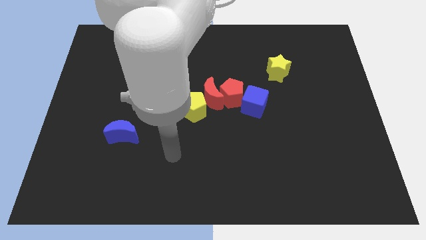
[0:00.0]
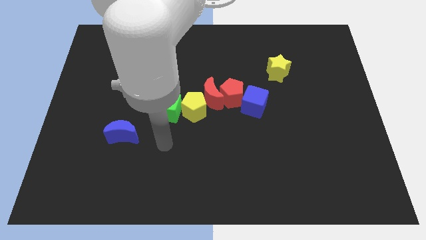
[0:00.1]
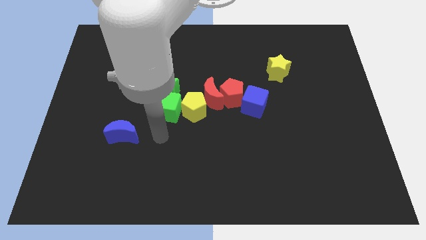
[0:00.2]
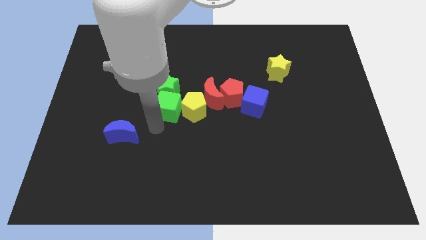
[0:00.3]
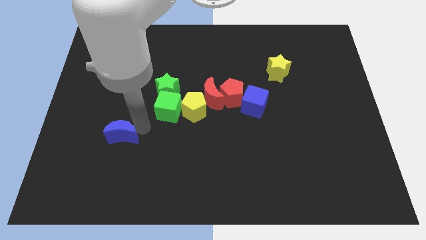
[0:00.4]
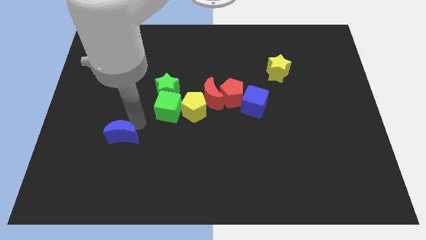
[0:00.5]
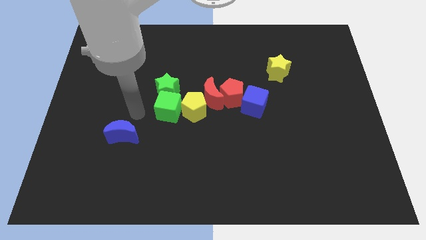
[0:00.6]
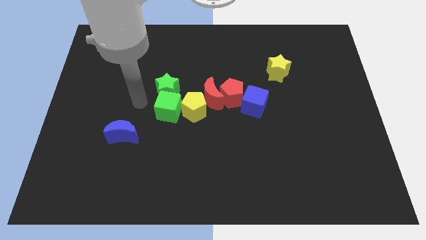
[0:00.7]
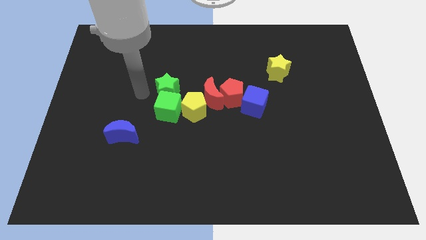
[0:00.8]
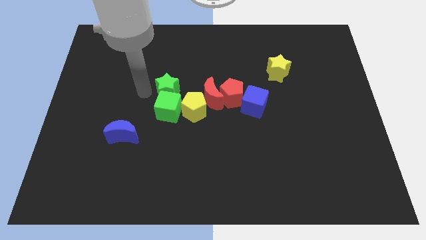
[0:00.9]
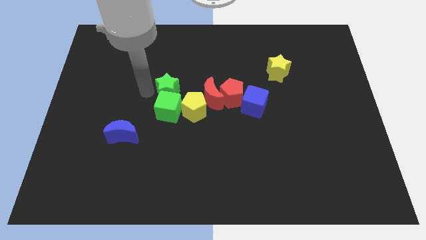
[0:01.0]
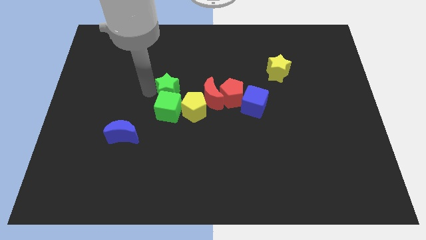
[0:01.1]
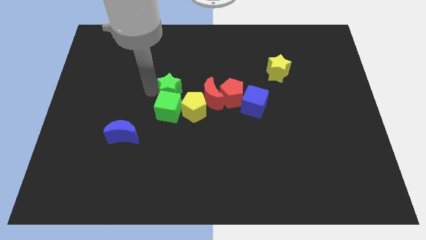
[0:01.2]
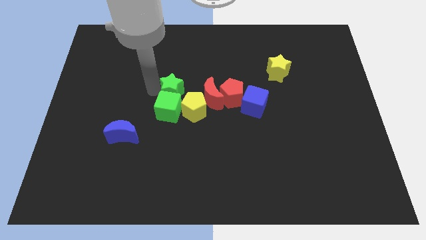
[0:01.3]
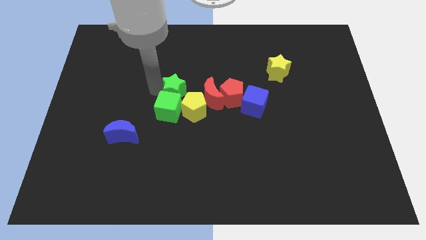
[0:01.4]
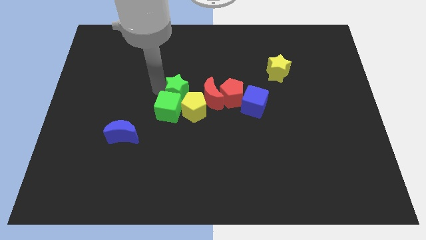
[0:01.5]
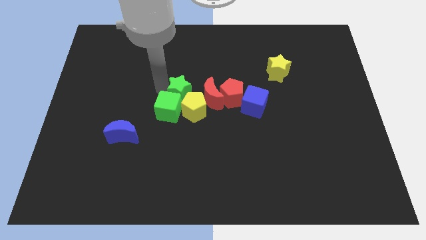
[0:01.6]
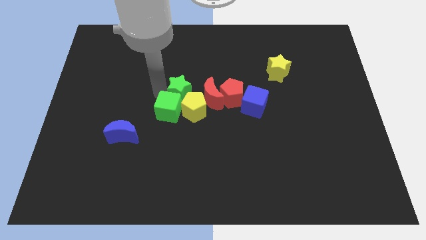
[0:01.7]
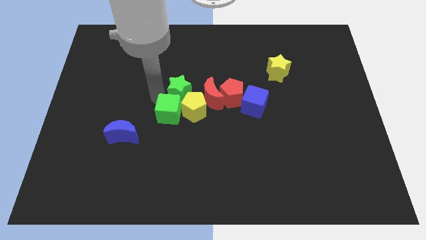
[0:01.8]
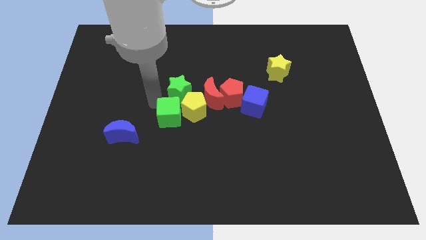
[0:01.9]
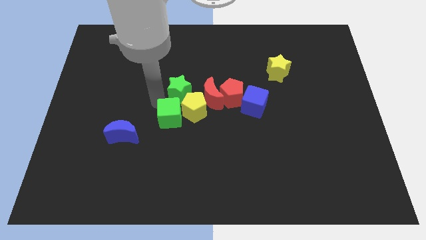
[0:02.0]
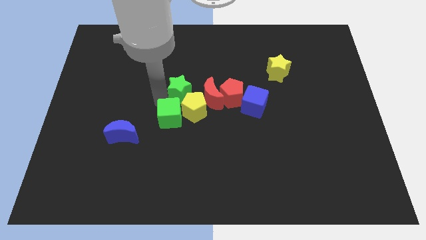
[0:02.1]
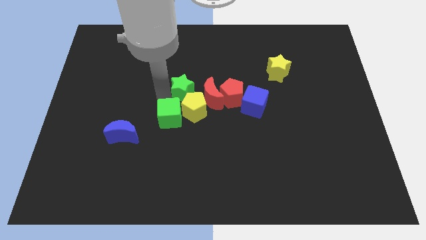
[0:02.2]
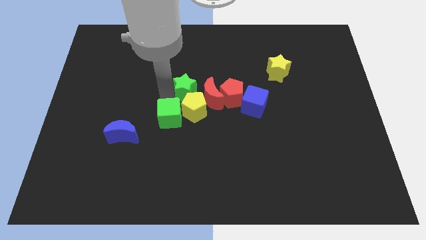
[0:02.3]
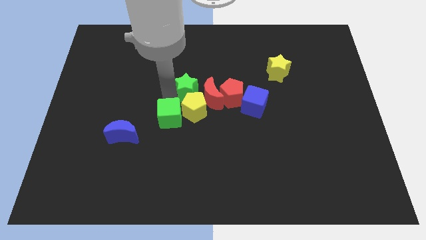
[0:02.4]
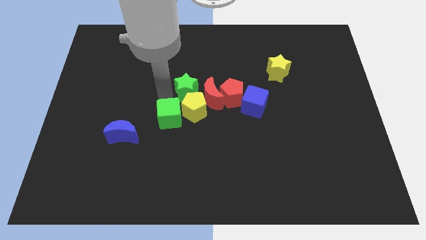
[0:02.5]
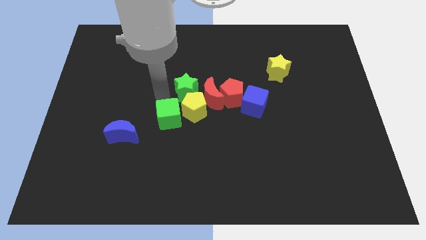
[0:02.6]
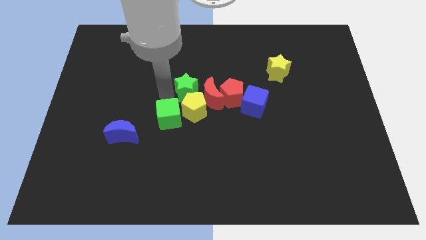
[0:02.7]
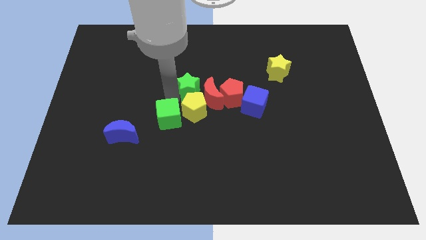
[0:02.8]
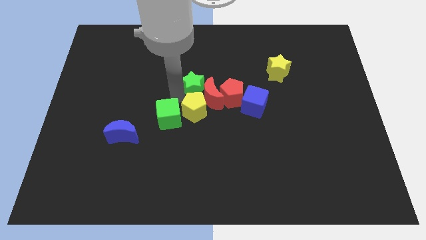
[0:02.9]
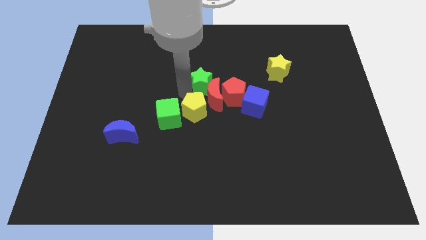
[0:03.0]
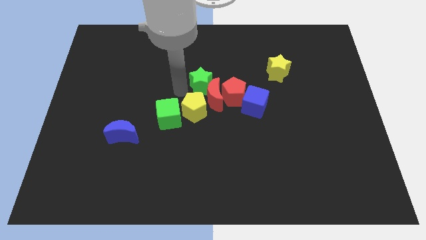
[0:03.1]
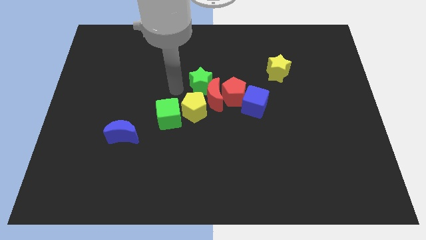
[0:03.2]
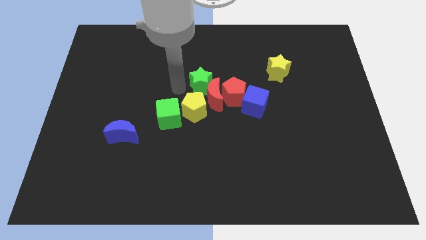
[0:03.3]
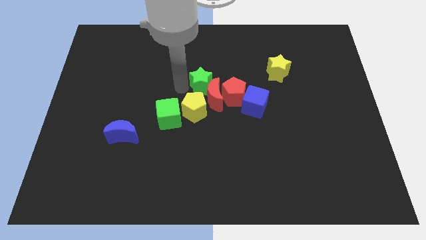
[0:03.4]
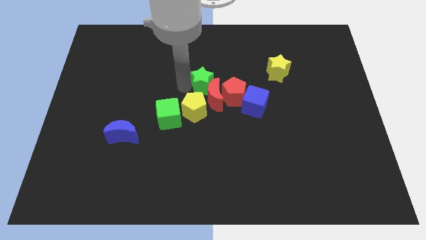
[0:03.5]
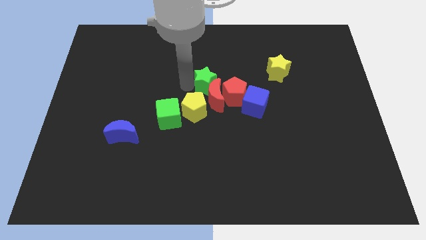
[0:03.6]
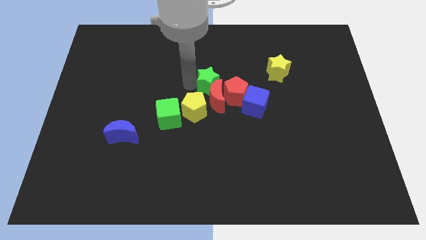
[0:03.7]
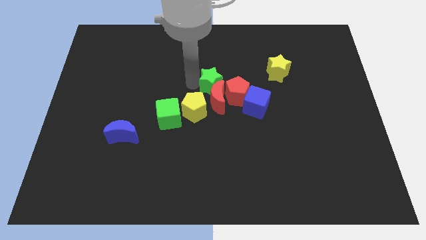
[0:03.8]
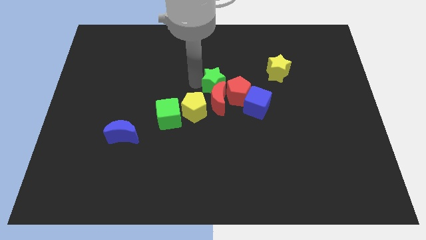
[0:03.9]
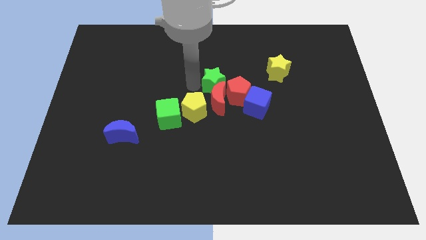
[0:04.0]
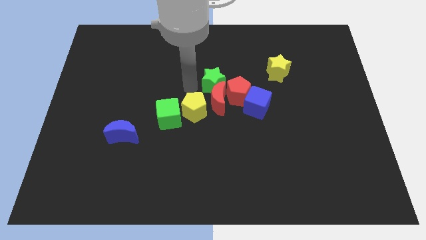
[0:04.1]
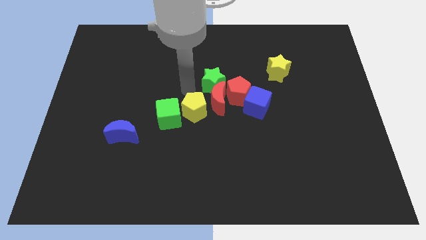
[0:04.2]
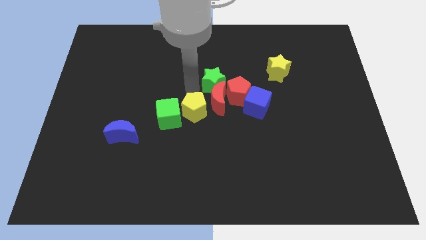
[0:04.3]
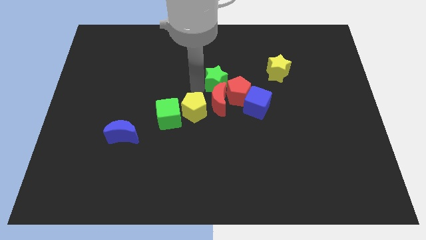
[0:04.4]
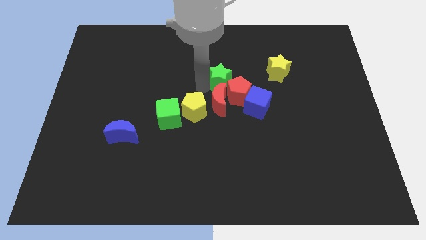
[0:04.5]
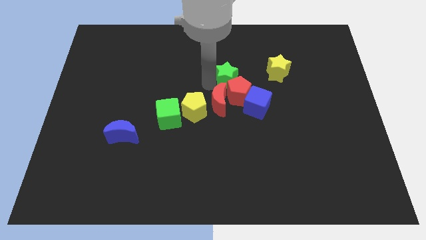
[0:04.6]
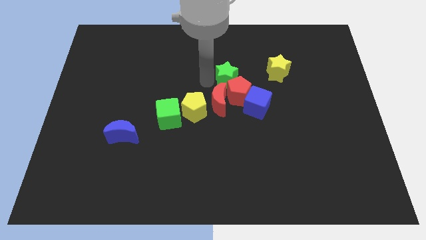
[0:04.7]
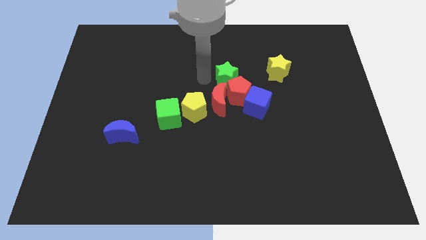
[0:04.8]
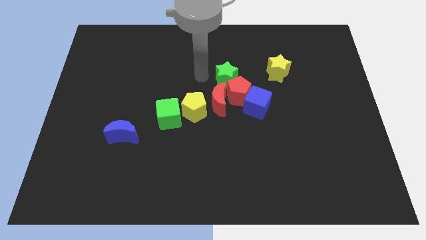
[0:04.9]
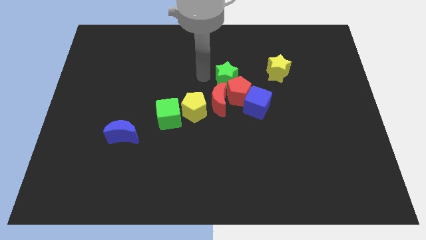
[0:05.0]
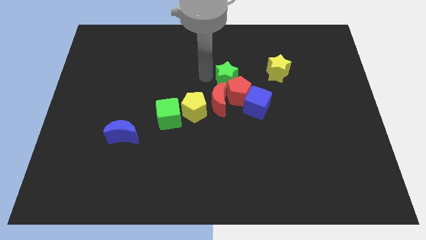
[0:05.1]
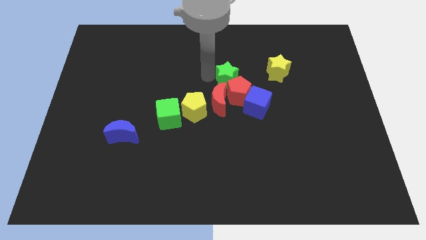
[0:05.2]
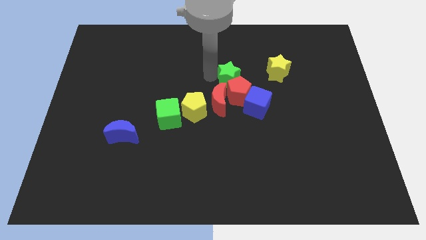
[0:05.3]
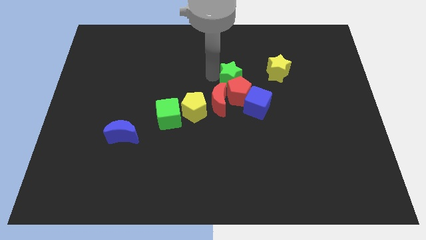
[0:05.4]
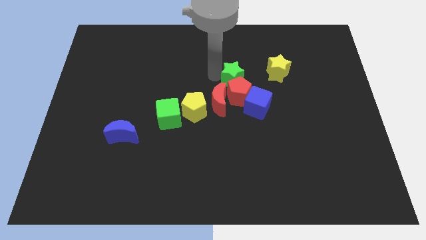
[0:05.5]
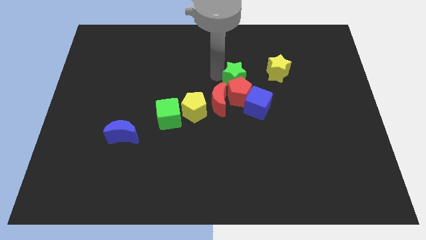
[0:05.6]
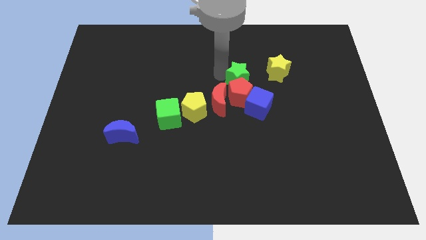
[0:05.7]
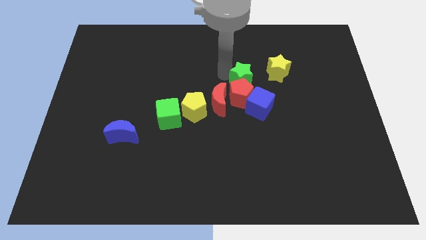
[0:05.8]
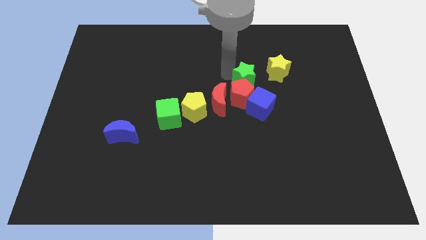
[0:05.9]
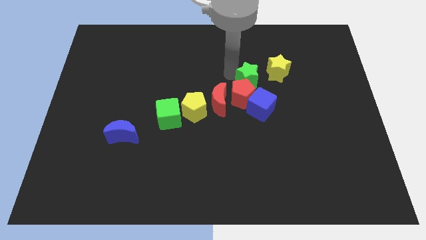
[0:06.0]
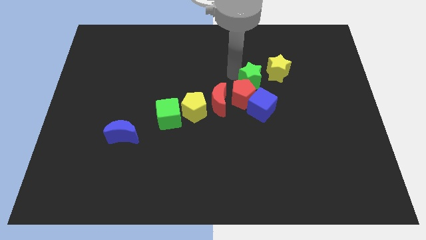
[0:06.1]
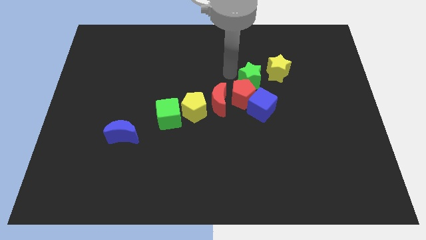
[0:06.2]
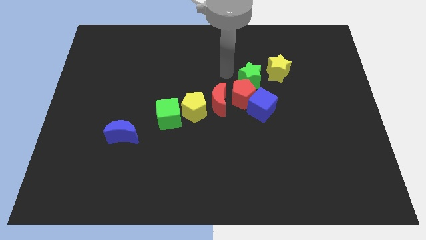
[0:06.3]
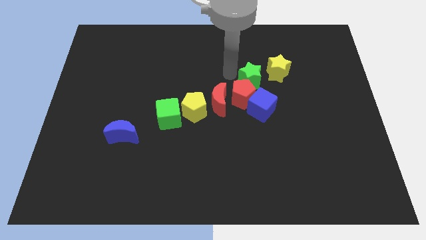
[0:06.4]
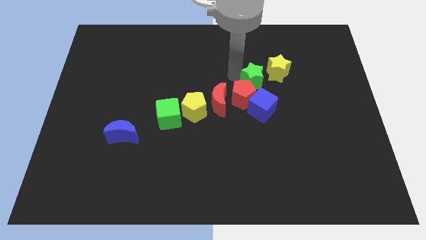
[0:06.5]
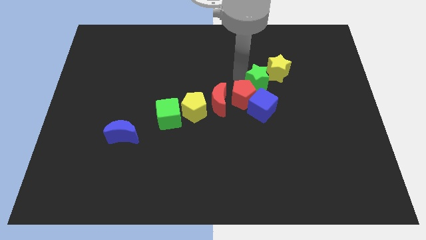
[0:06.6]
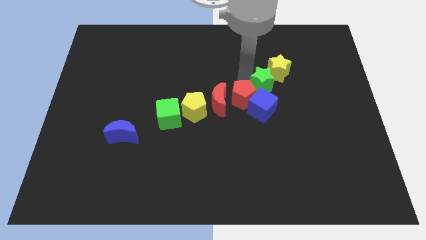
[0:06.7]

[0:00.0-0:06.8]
put the green star to the bottom side of the yellow star

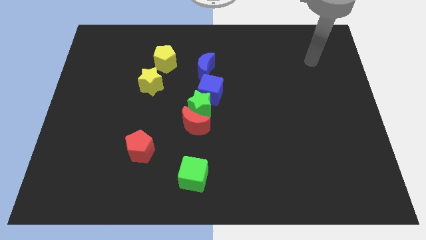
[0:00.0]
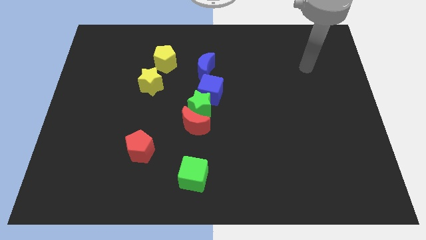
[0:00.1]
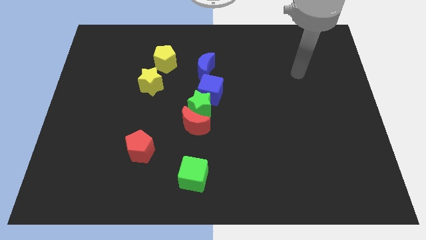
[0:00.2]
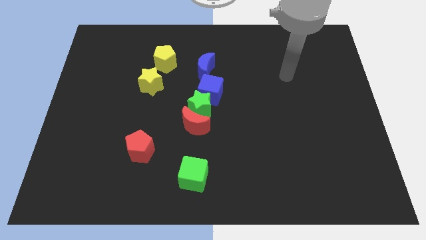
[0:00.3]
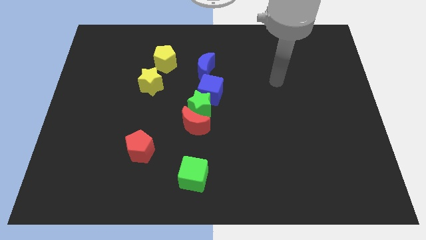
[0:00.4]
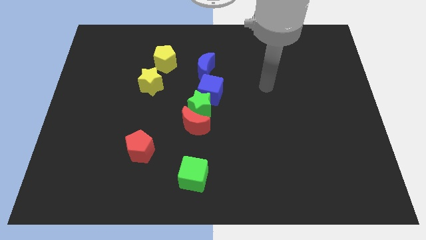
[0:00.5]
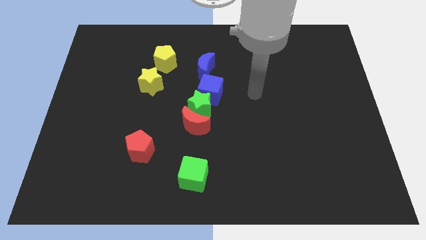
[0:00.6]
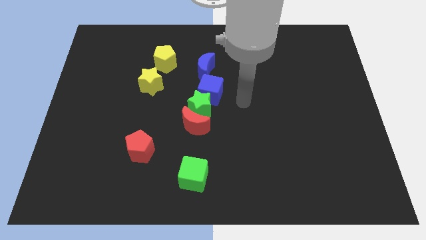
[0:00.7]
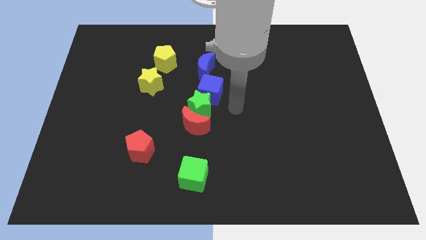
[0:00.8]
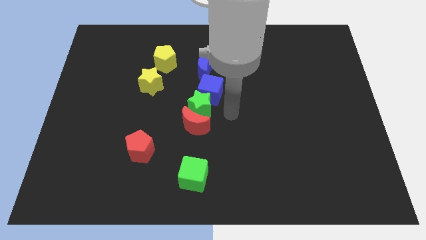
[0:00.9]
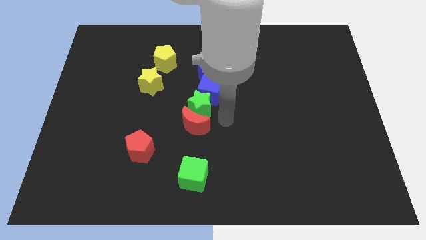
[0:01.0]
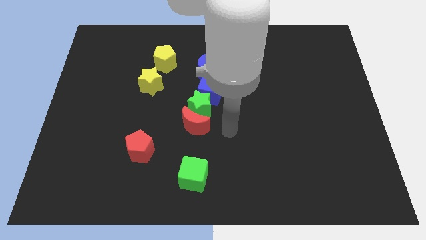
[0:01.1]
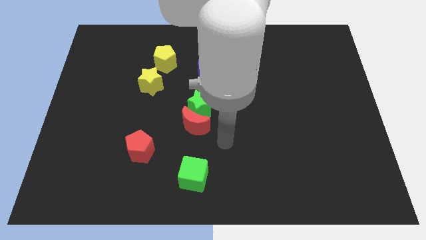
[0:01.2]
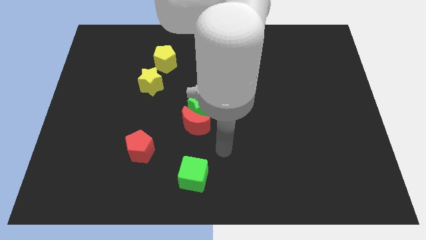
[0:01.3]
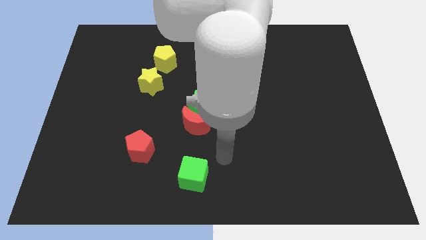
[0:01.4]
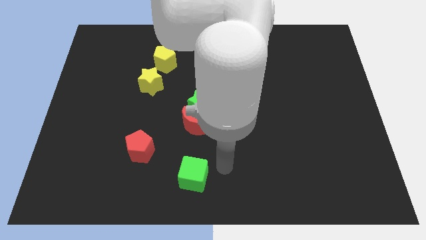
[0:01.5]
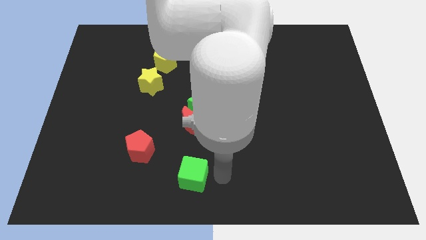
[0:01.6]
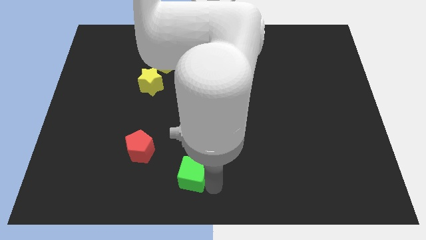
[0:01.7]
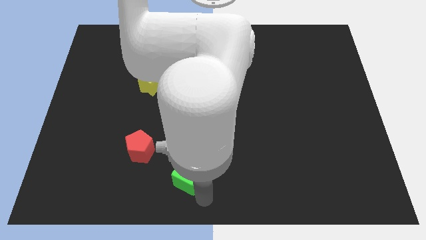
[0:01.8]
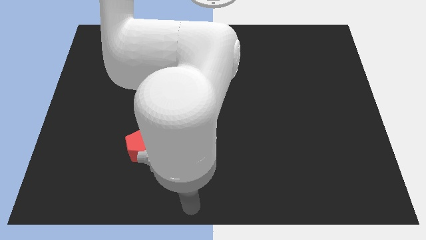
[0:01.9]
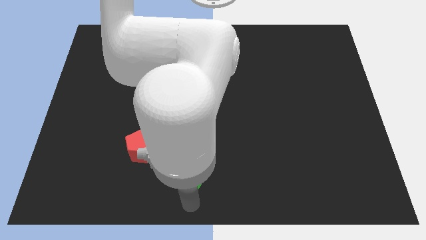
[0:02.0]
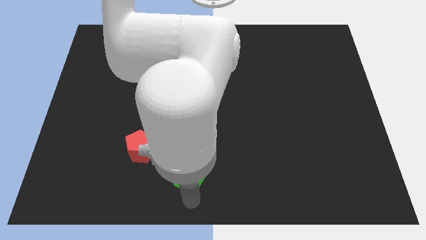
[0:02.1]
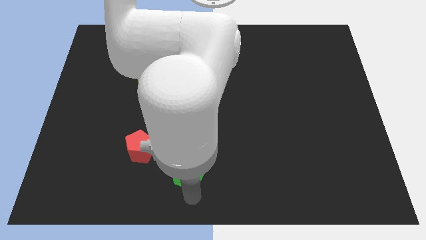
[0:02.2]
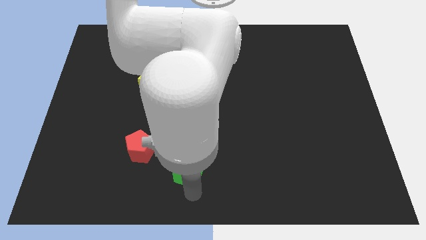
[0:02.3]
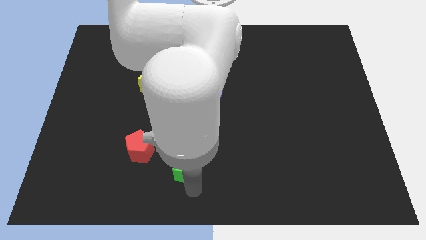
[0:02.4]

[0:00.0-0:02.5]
put the green cube right of the red pentagon
